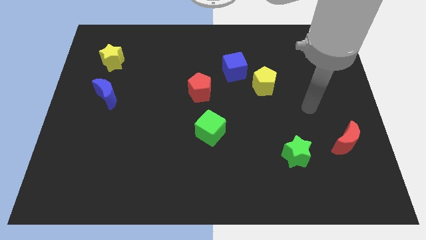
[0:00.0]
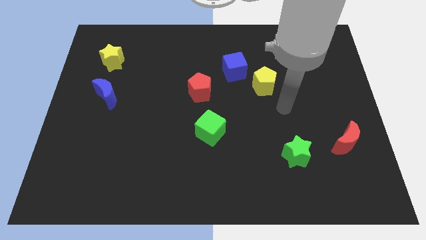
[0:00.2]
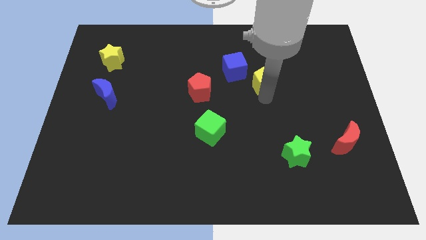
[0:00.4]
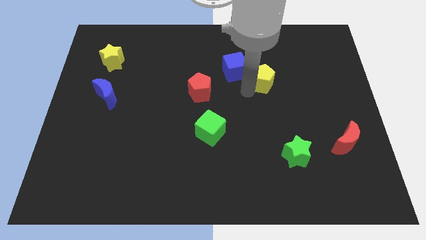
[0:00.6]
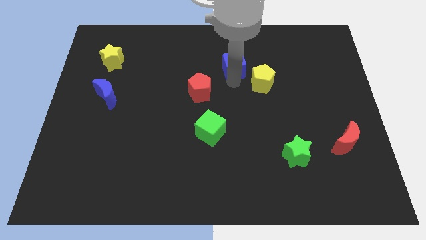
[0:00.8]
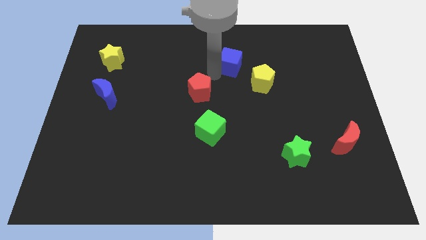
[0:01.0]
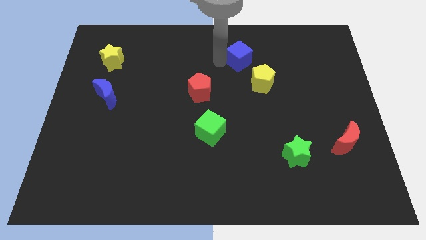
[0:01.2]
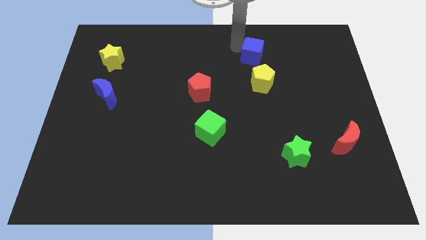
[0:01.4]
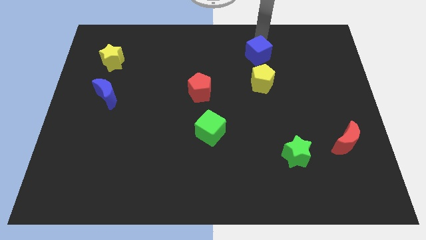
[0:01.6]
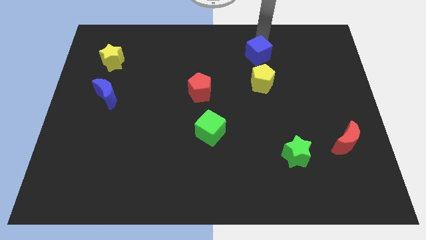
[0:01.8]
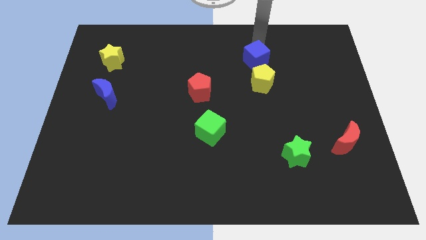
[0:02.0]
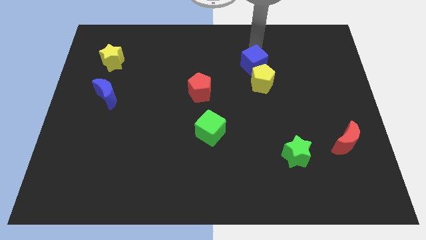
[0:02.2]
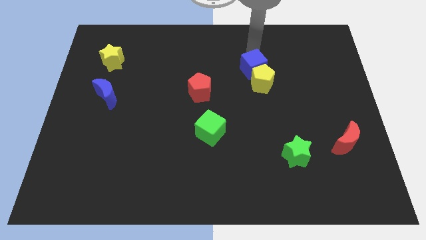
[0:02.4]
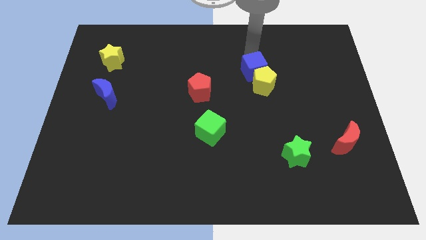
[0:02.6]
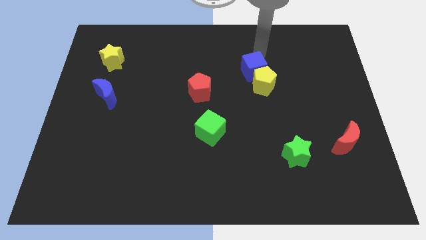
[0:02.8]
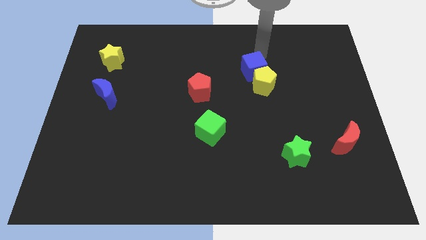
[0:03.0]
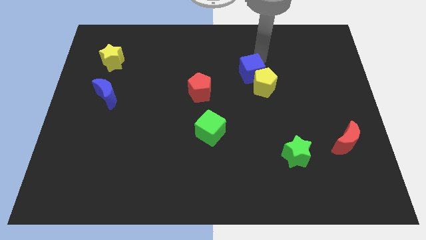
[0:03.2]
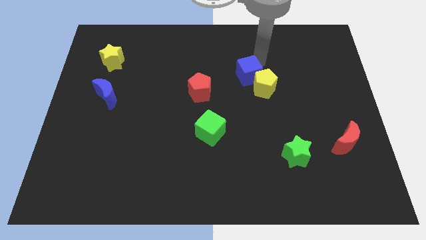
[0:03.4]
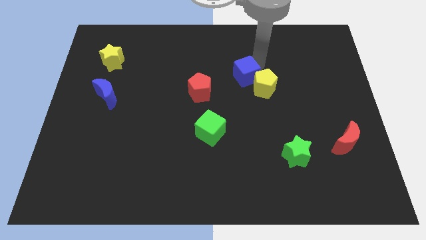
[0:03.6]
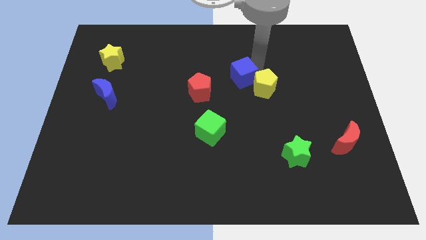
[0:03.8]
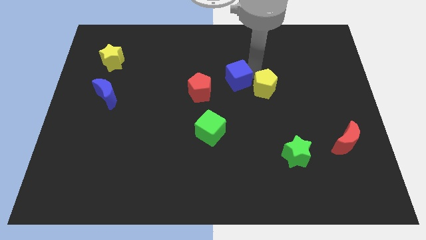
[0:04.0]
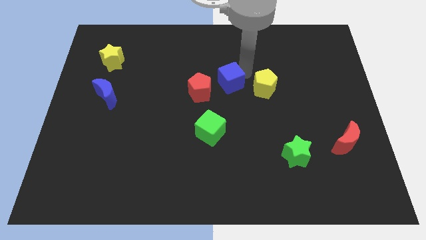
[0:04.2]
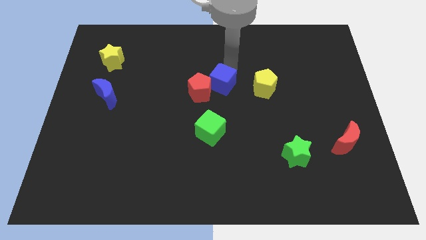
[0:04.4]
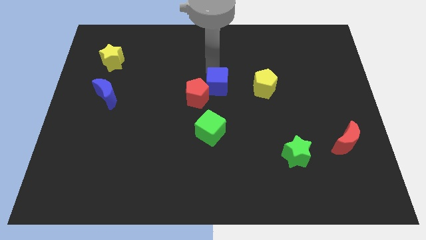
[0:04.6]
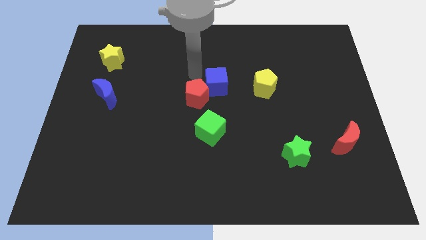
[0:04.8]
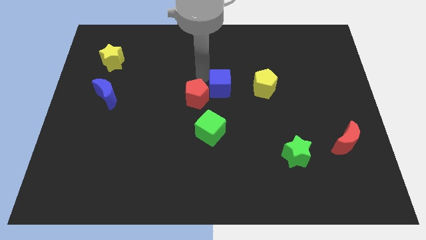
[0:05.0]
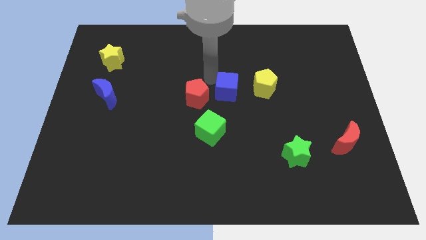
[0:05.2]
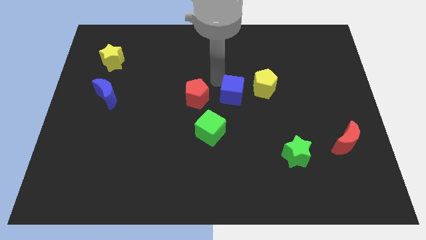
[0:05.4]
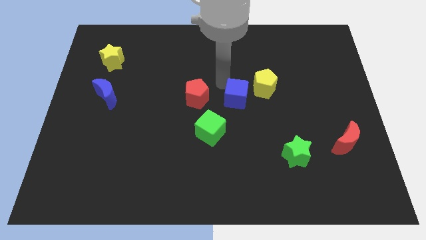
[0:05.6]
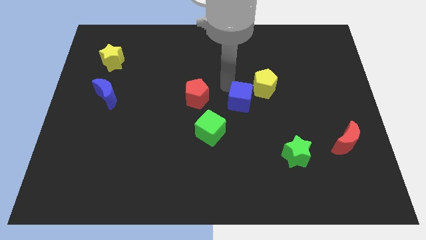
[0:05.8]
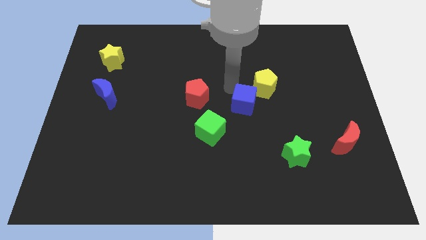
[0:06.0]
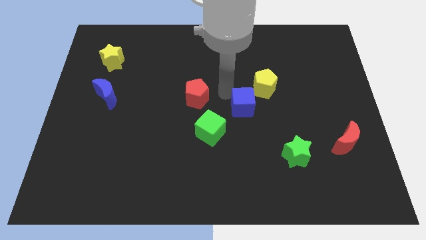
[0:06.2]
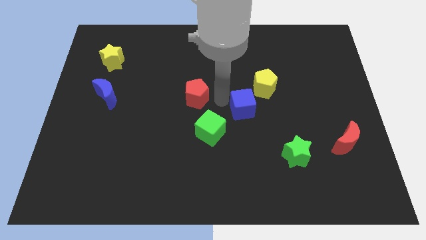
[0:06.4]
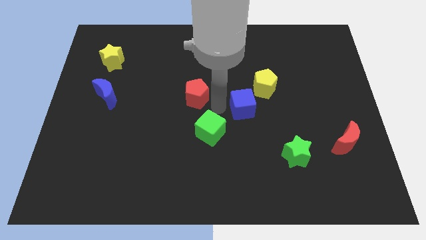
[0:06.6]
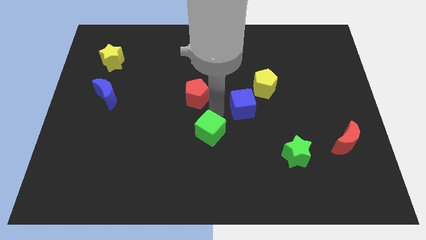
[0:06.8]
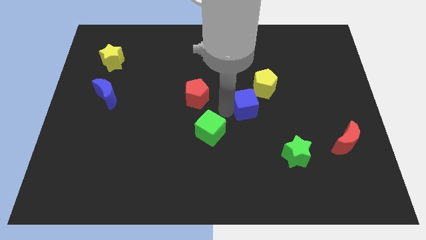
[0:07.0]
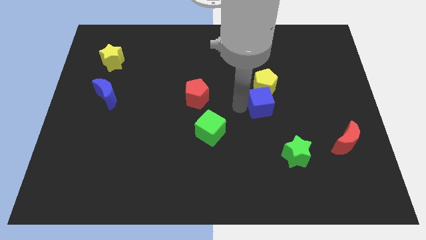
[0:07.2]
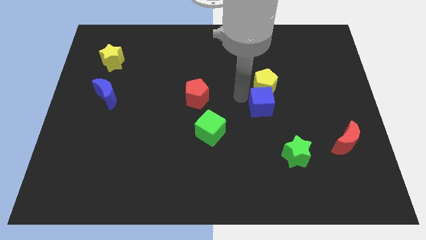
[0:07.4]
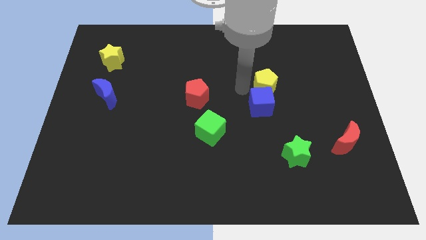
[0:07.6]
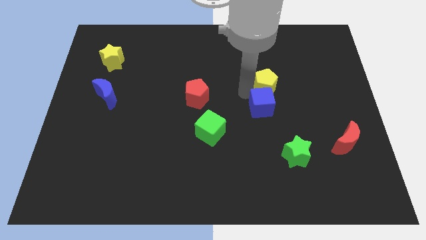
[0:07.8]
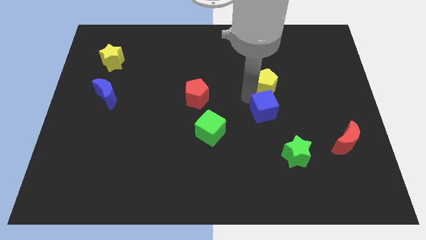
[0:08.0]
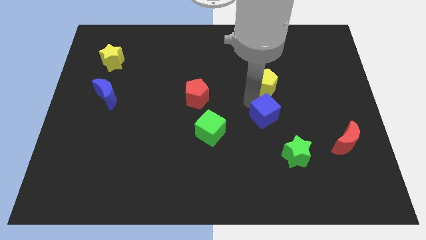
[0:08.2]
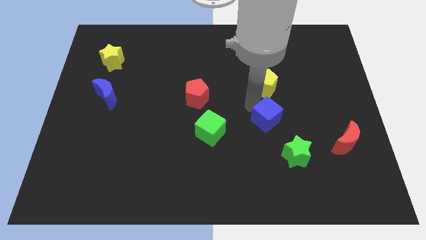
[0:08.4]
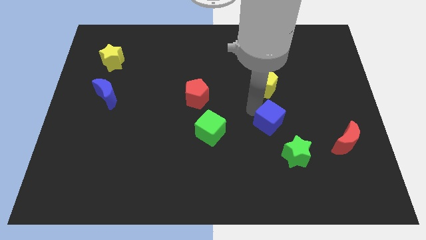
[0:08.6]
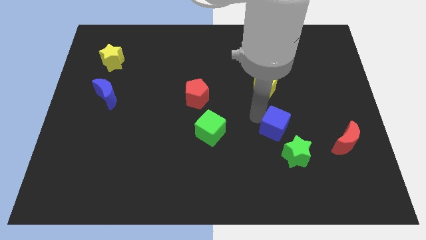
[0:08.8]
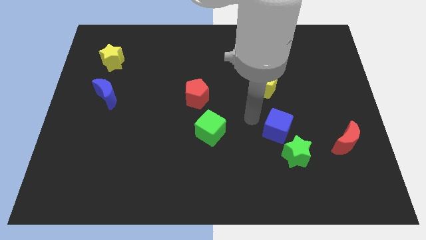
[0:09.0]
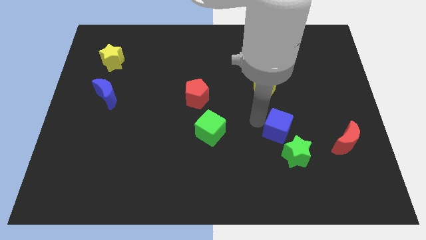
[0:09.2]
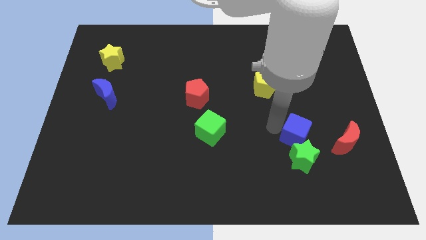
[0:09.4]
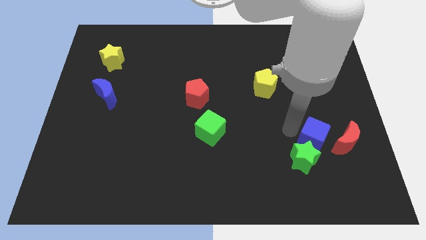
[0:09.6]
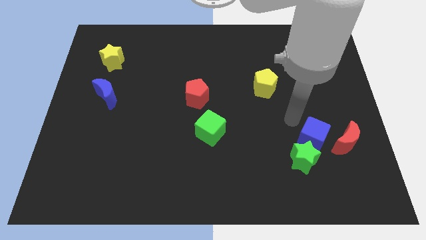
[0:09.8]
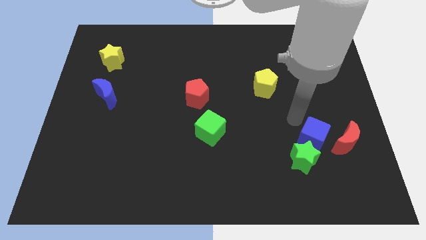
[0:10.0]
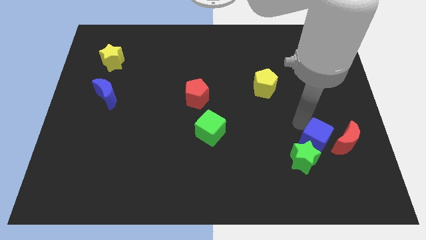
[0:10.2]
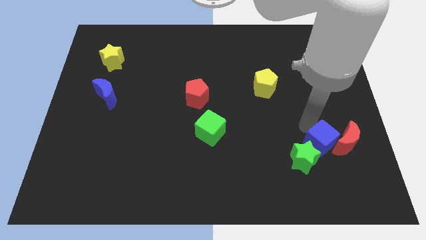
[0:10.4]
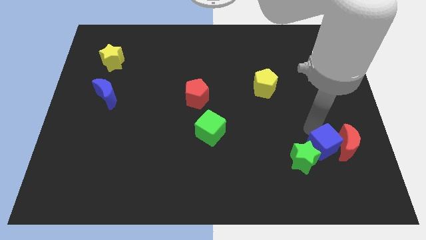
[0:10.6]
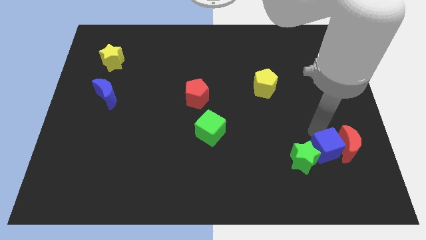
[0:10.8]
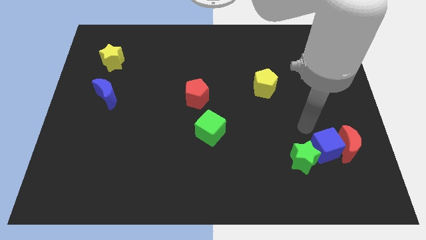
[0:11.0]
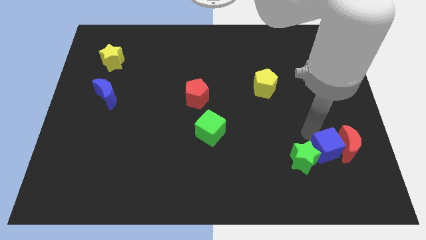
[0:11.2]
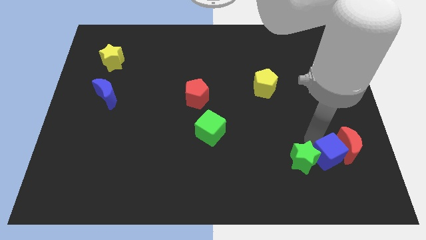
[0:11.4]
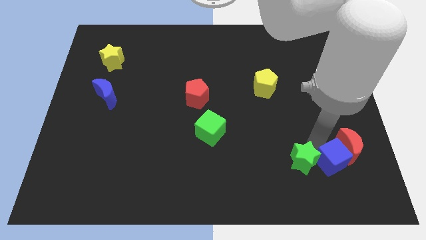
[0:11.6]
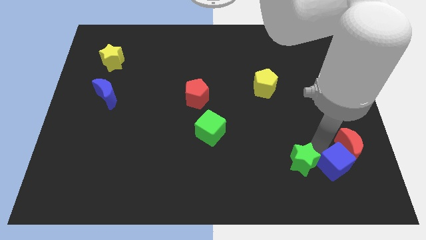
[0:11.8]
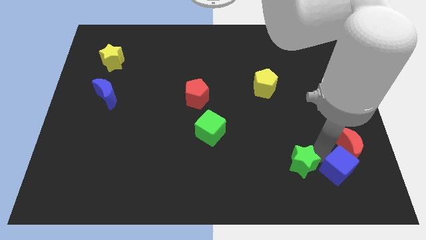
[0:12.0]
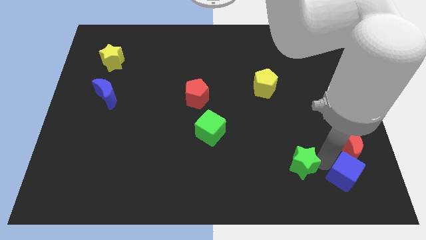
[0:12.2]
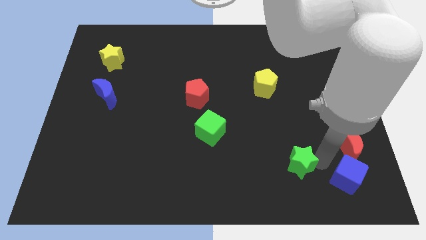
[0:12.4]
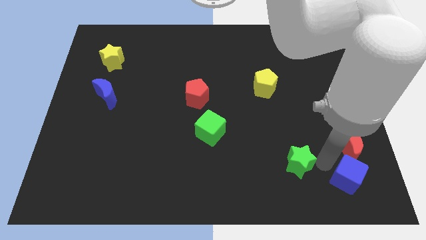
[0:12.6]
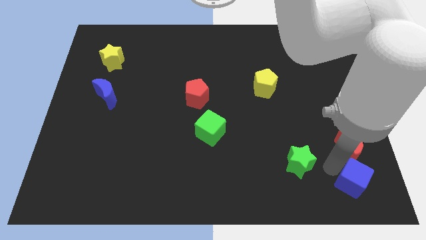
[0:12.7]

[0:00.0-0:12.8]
push the blue cube to the bottom right
